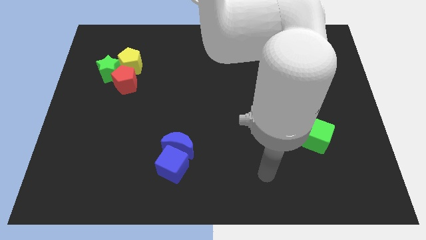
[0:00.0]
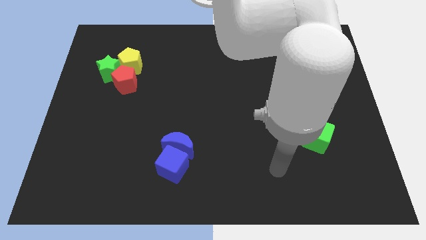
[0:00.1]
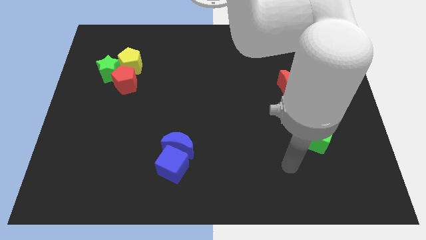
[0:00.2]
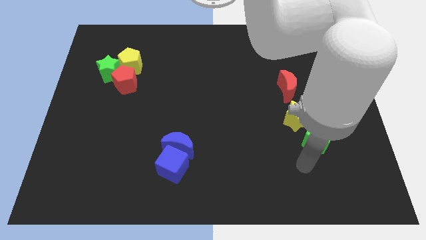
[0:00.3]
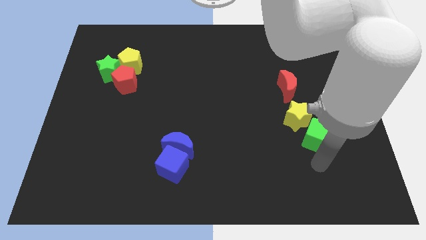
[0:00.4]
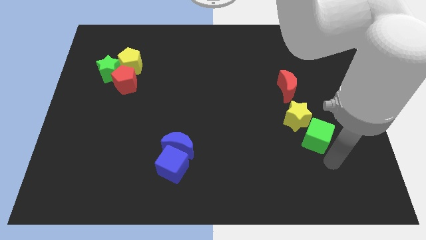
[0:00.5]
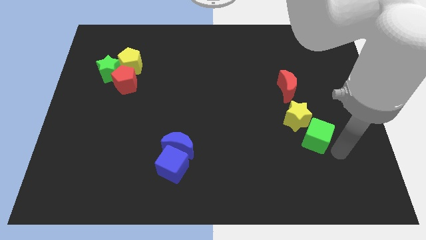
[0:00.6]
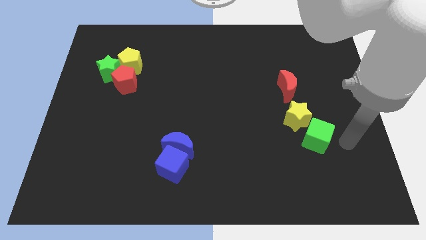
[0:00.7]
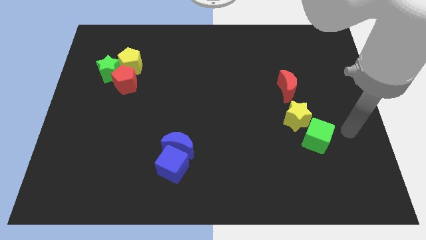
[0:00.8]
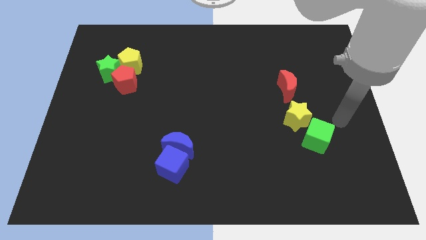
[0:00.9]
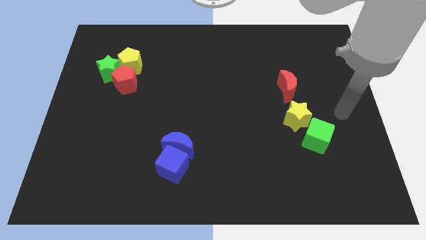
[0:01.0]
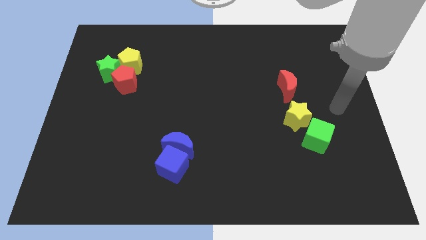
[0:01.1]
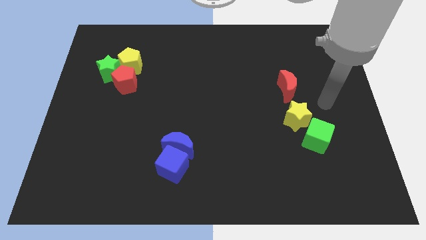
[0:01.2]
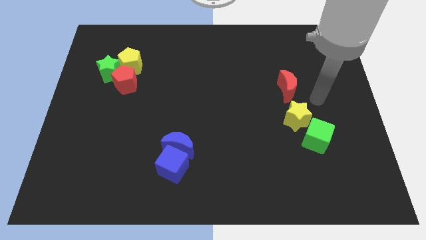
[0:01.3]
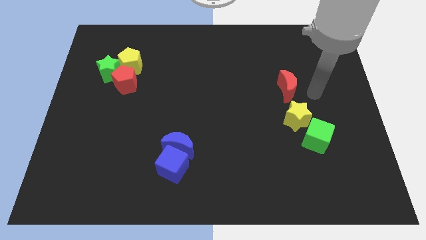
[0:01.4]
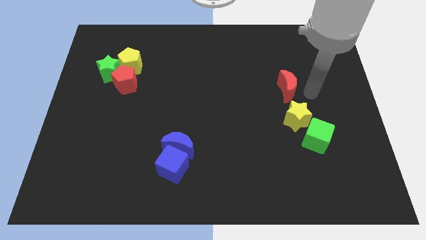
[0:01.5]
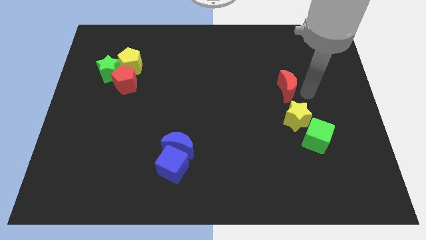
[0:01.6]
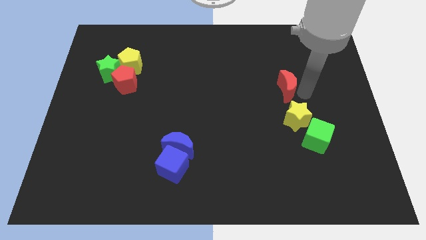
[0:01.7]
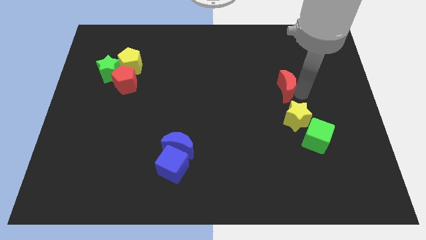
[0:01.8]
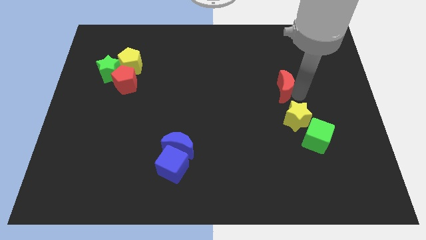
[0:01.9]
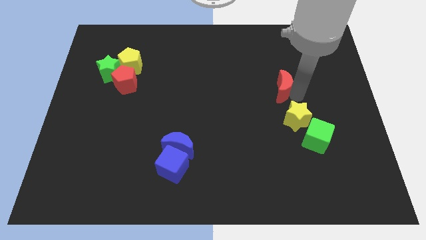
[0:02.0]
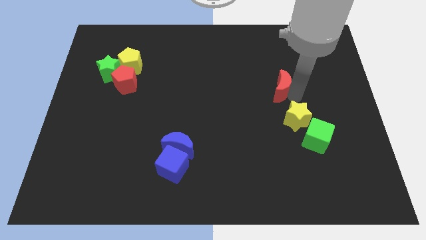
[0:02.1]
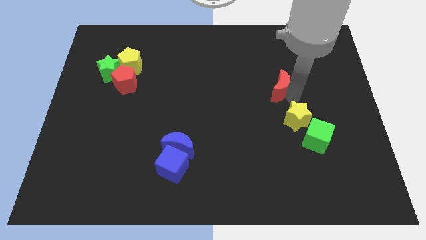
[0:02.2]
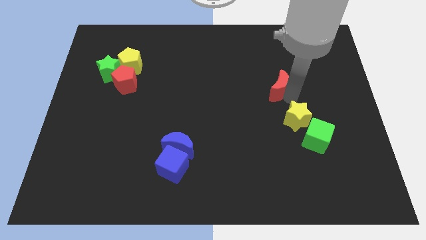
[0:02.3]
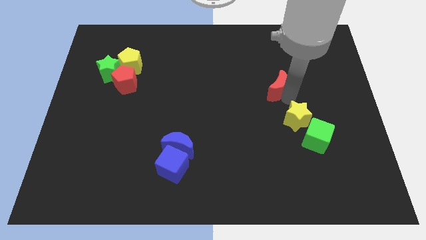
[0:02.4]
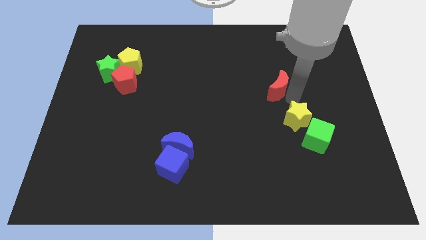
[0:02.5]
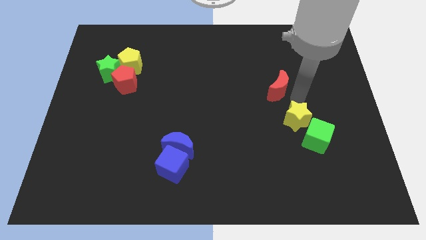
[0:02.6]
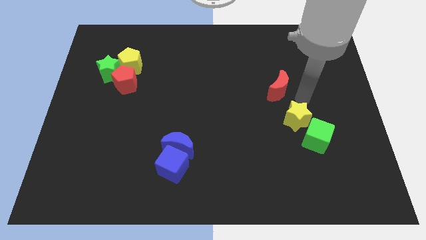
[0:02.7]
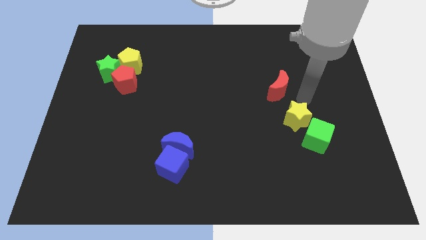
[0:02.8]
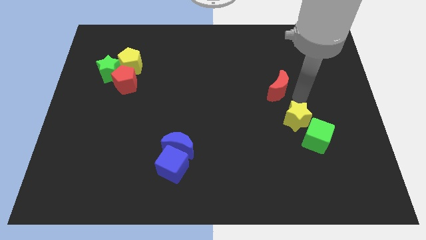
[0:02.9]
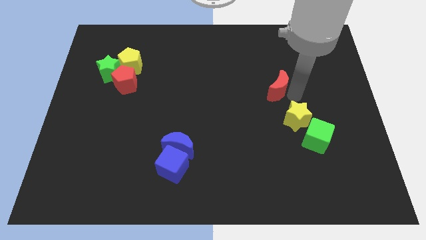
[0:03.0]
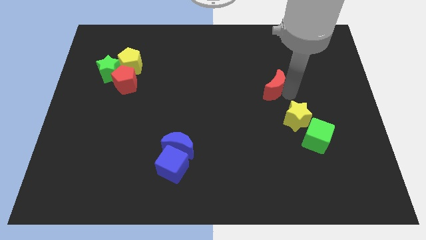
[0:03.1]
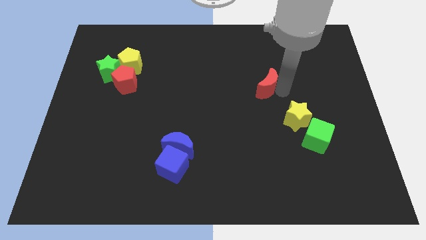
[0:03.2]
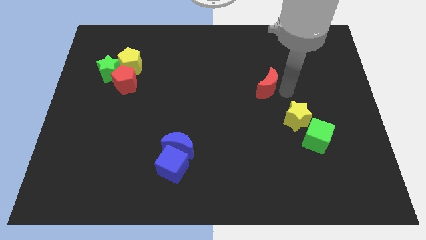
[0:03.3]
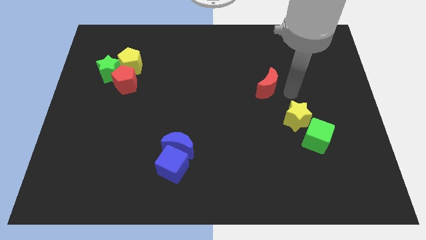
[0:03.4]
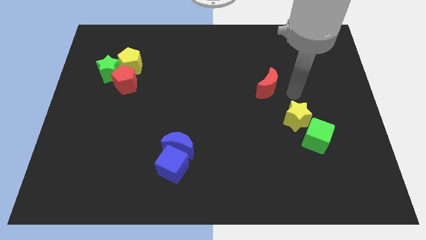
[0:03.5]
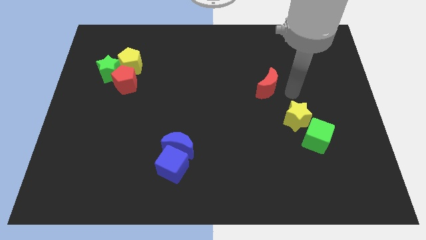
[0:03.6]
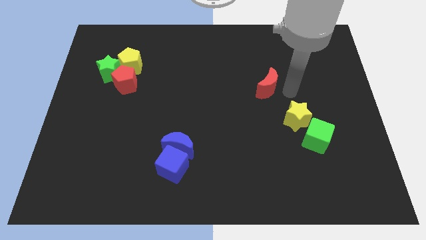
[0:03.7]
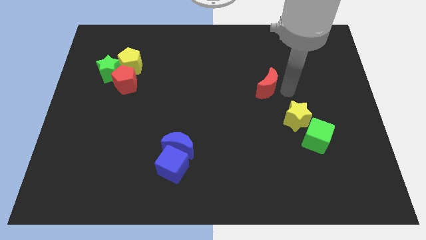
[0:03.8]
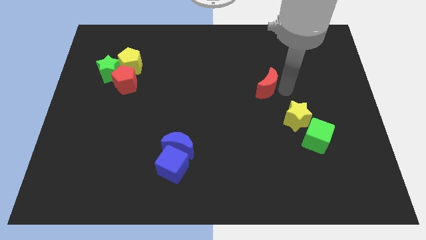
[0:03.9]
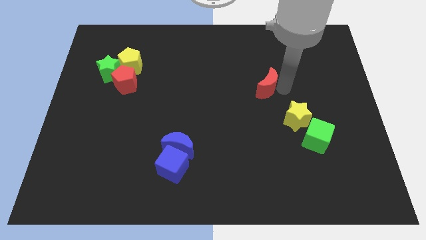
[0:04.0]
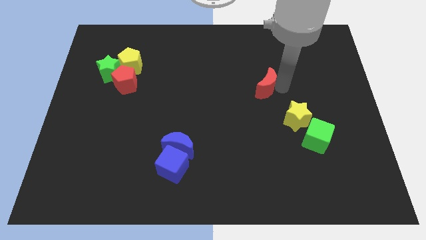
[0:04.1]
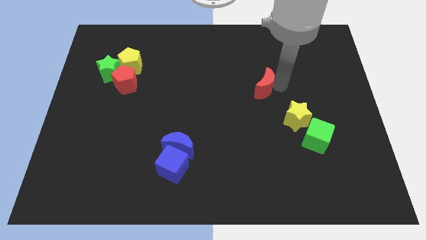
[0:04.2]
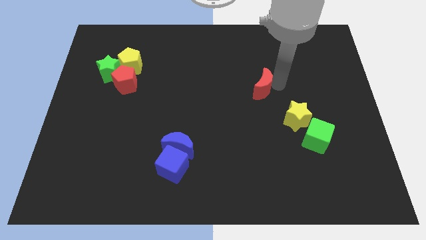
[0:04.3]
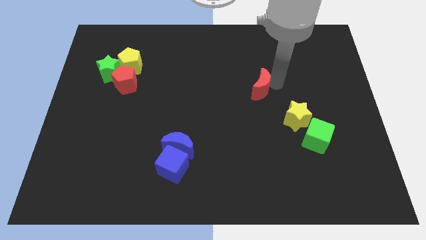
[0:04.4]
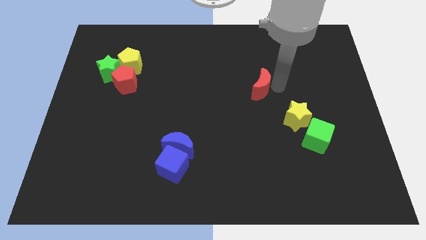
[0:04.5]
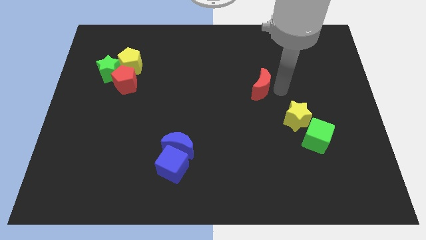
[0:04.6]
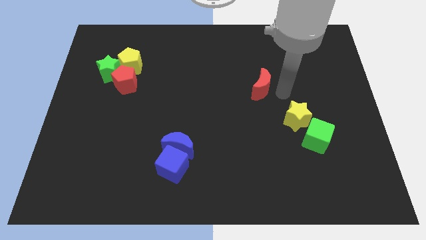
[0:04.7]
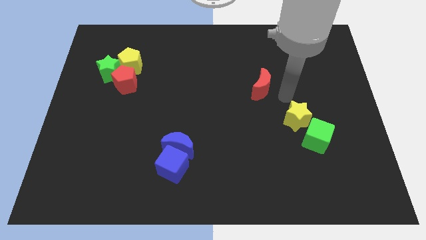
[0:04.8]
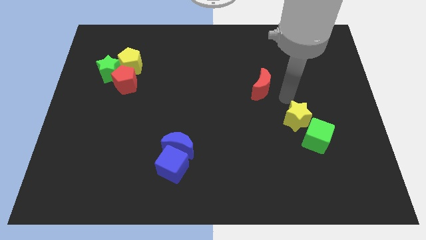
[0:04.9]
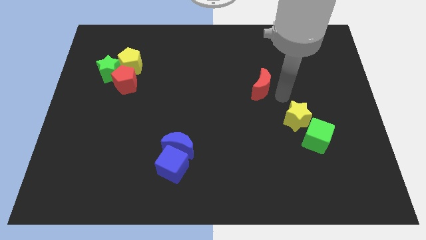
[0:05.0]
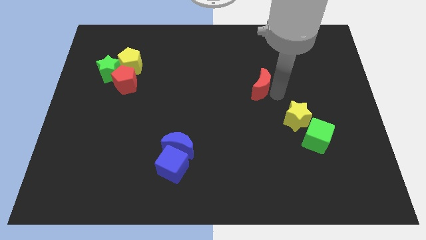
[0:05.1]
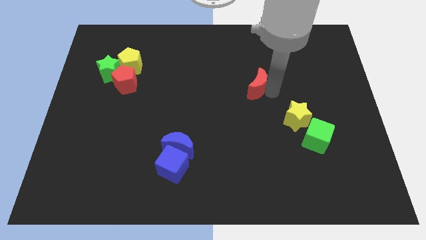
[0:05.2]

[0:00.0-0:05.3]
move the red moon slightly left

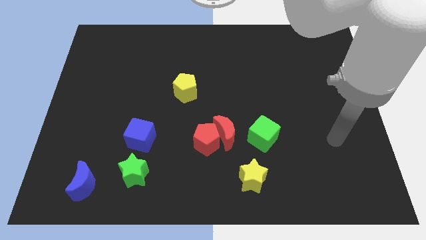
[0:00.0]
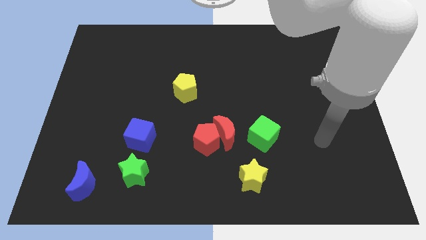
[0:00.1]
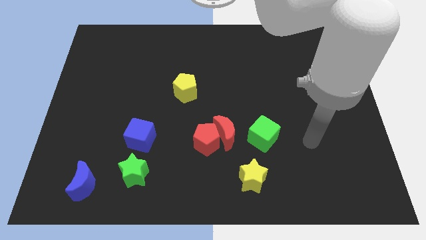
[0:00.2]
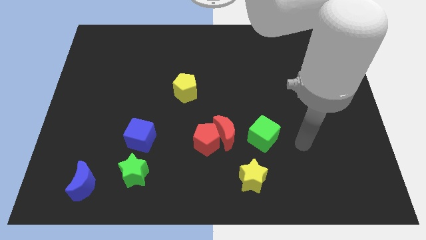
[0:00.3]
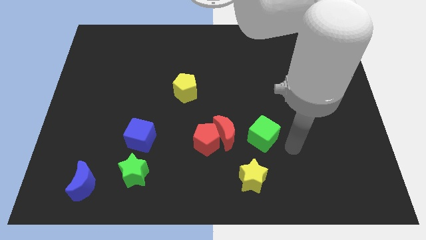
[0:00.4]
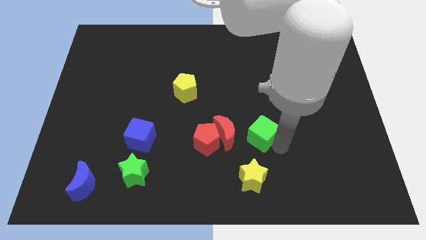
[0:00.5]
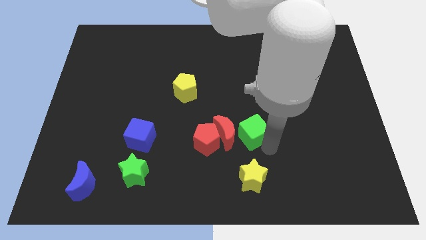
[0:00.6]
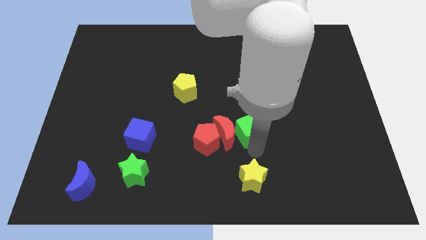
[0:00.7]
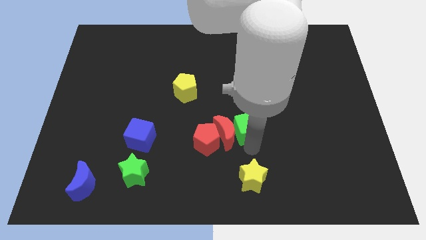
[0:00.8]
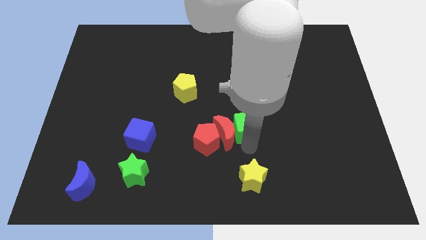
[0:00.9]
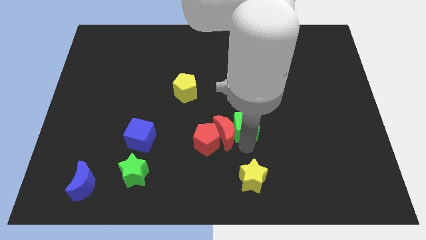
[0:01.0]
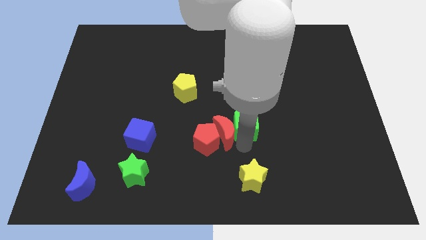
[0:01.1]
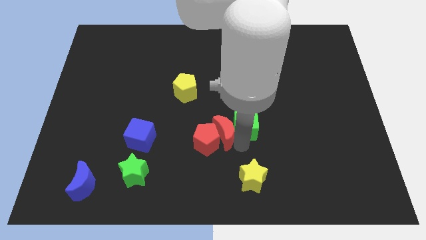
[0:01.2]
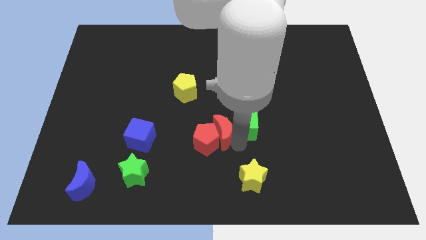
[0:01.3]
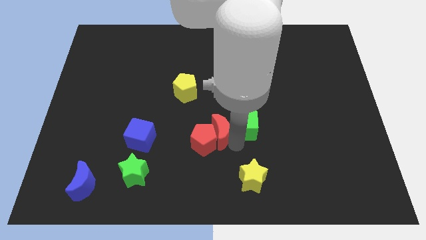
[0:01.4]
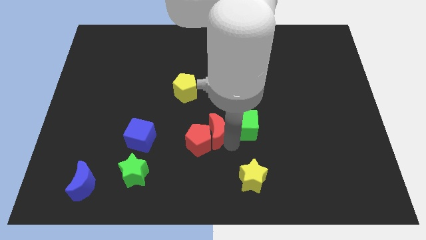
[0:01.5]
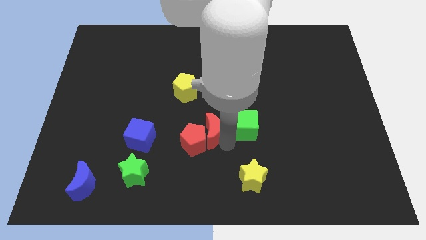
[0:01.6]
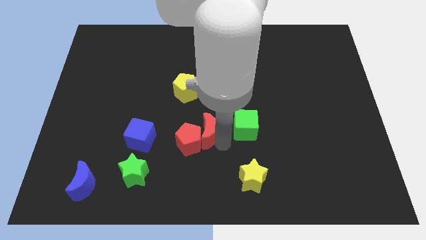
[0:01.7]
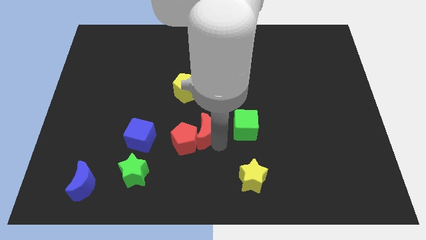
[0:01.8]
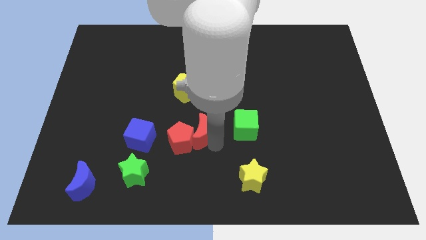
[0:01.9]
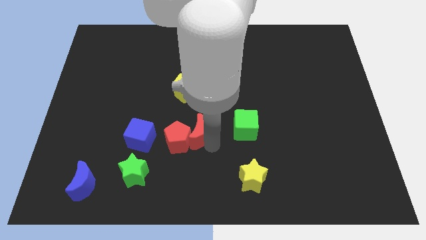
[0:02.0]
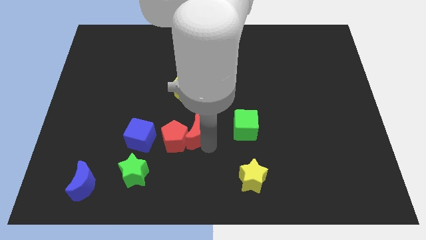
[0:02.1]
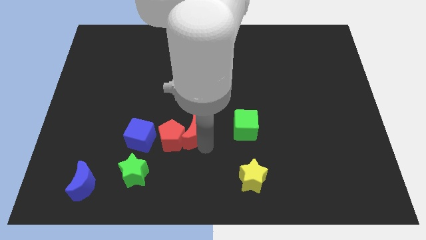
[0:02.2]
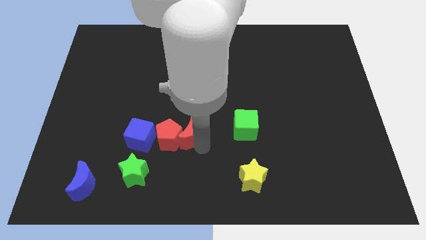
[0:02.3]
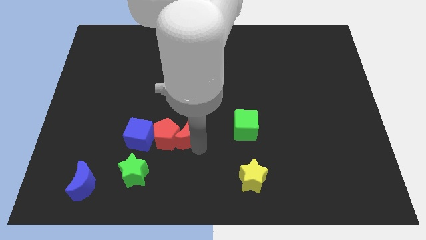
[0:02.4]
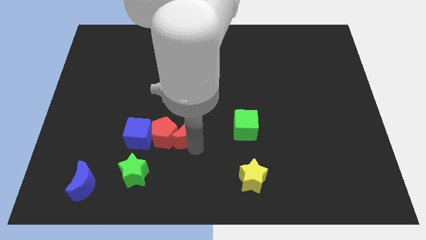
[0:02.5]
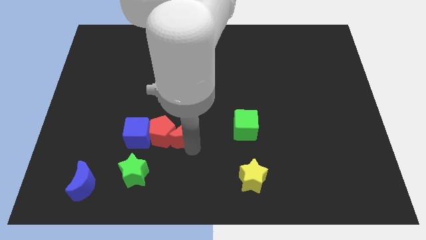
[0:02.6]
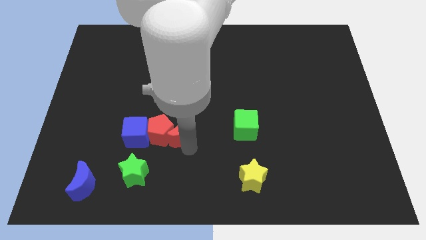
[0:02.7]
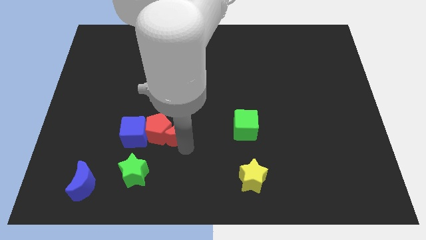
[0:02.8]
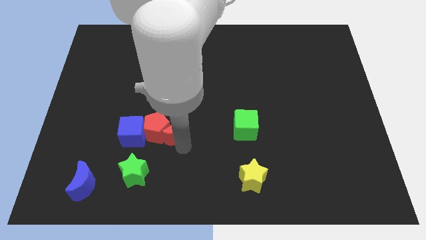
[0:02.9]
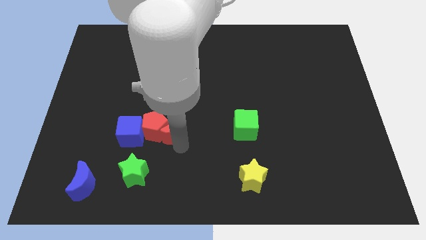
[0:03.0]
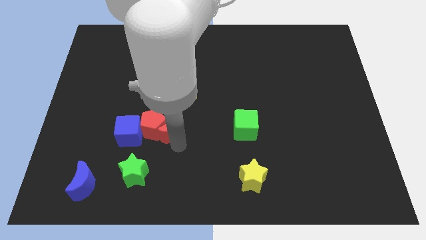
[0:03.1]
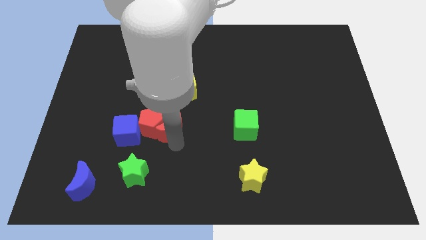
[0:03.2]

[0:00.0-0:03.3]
slide the red moon a bit up and then left
